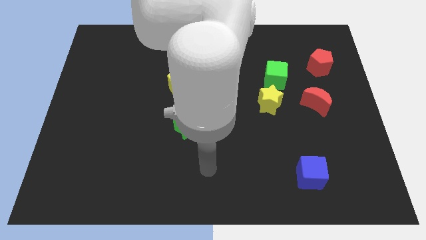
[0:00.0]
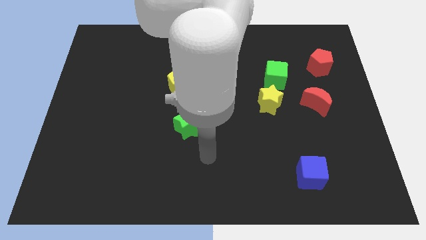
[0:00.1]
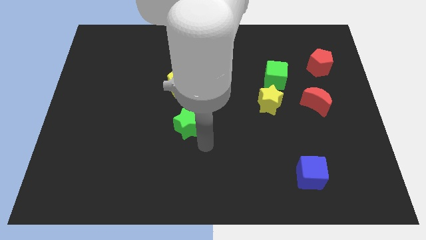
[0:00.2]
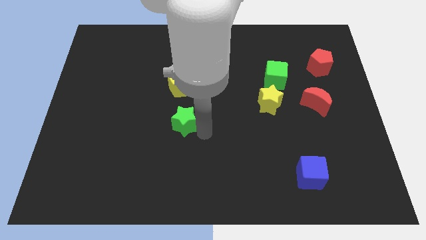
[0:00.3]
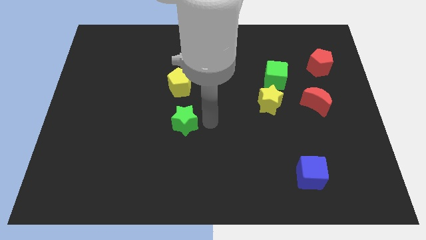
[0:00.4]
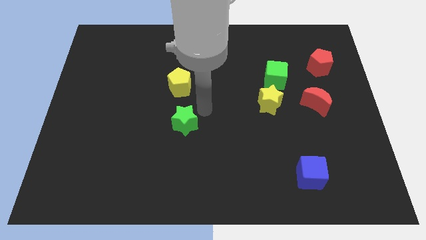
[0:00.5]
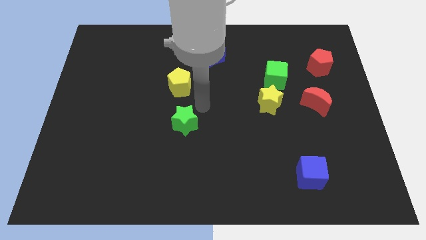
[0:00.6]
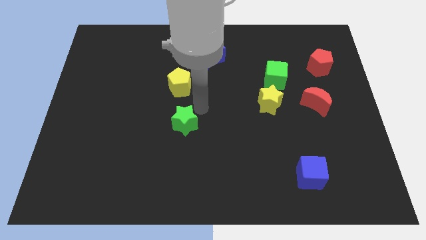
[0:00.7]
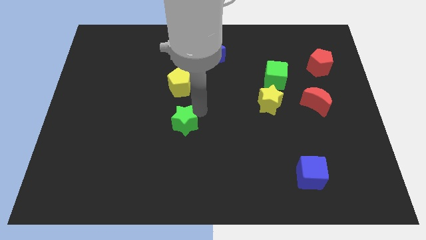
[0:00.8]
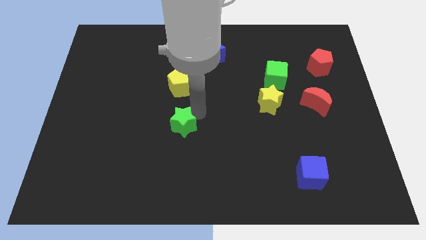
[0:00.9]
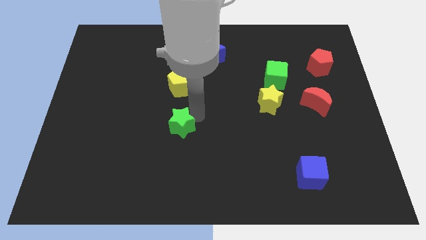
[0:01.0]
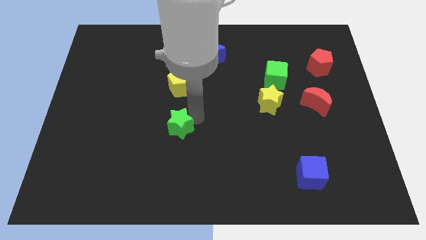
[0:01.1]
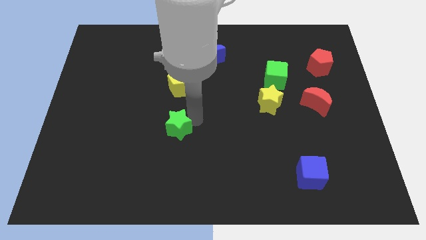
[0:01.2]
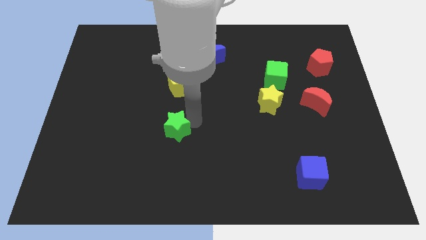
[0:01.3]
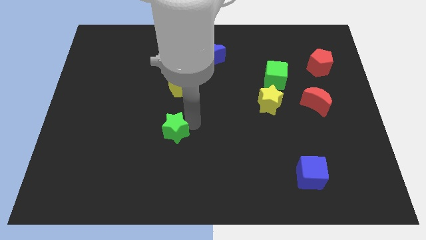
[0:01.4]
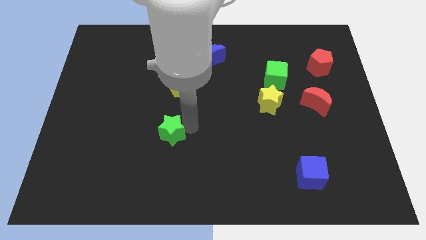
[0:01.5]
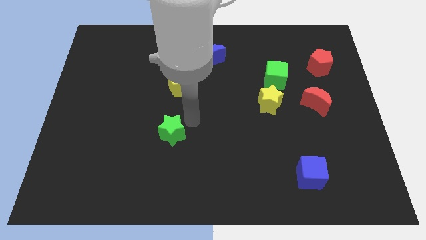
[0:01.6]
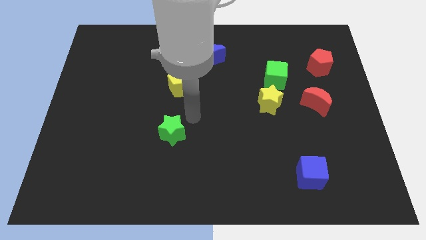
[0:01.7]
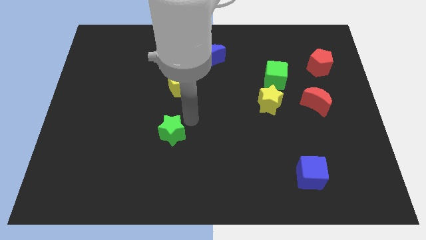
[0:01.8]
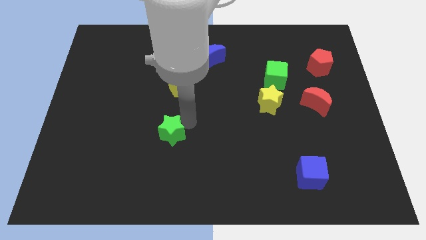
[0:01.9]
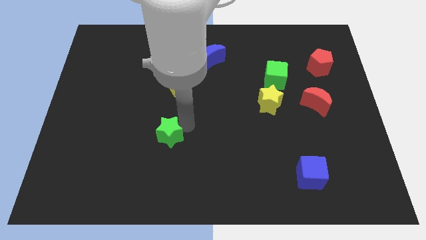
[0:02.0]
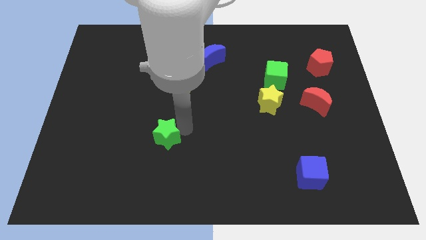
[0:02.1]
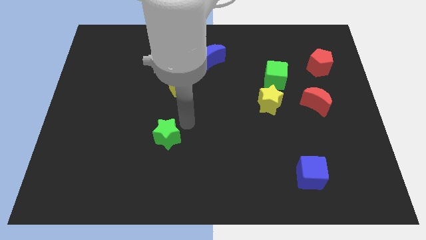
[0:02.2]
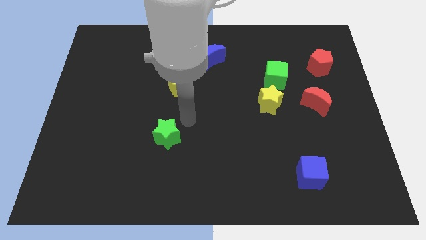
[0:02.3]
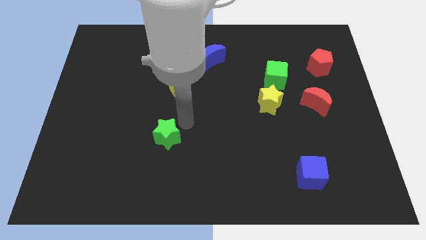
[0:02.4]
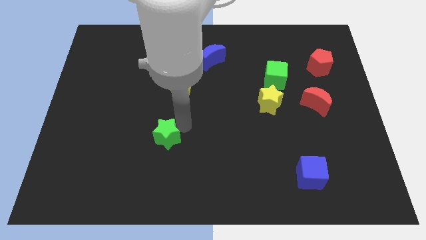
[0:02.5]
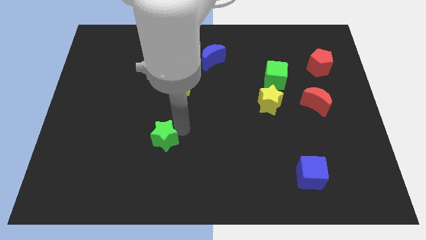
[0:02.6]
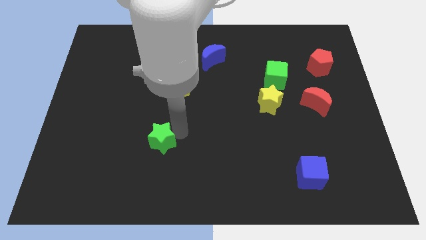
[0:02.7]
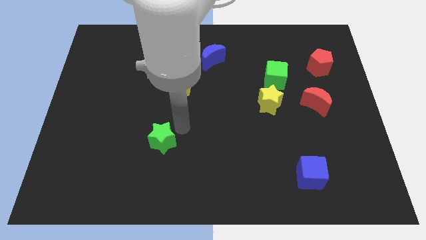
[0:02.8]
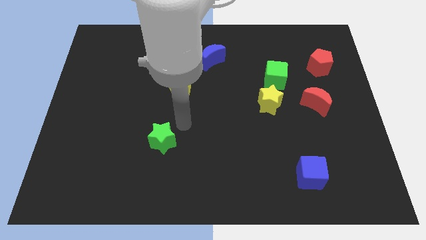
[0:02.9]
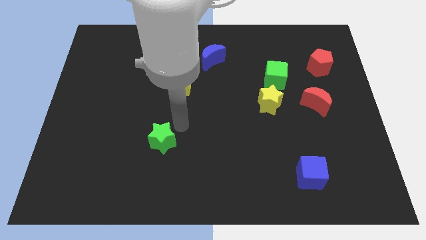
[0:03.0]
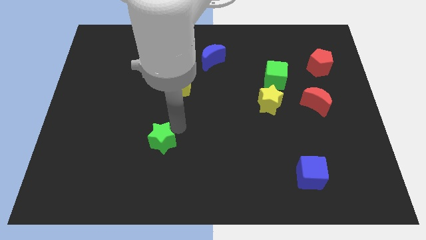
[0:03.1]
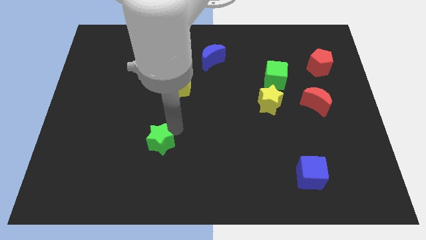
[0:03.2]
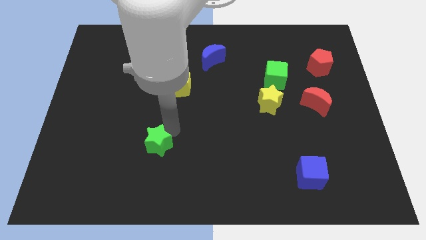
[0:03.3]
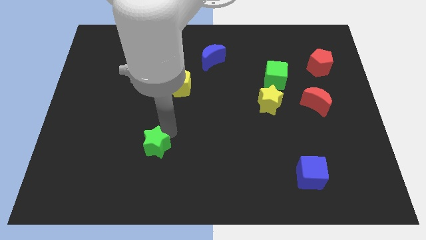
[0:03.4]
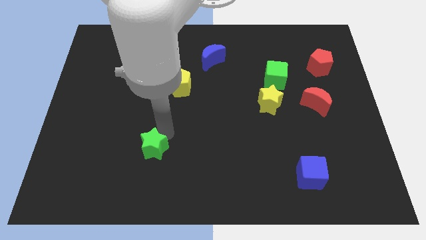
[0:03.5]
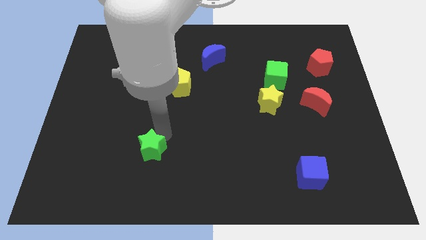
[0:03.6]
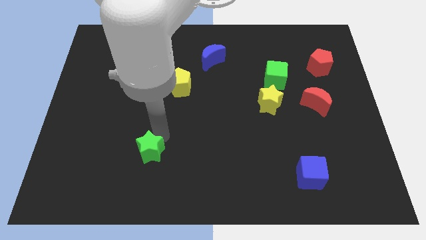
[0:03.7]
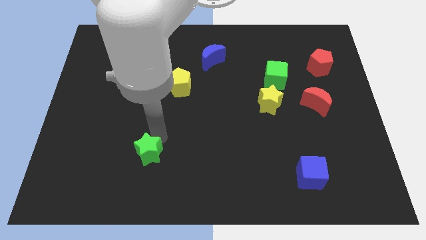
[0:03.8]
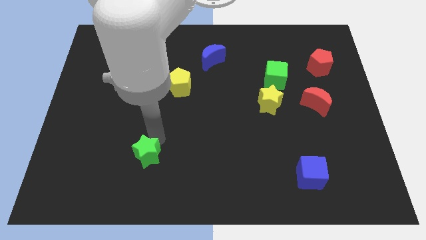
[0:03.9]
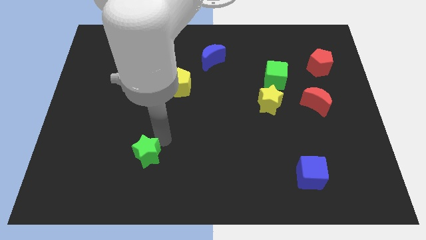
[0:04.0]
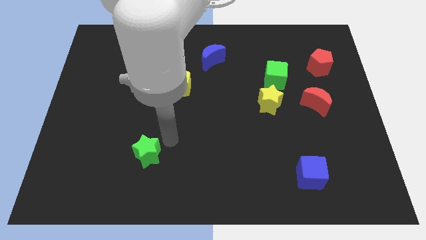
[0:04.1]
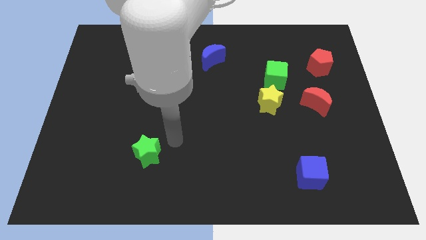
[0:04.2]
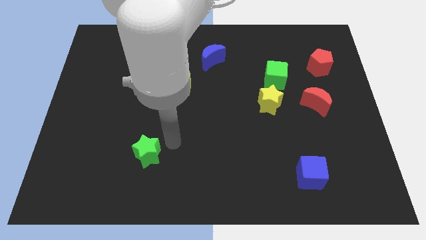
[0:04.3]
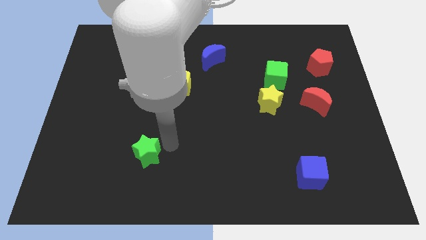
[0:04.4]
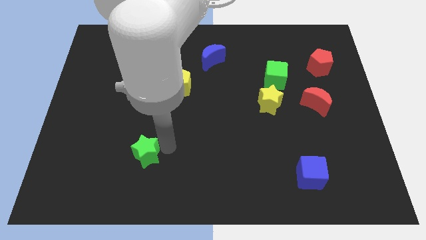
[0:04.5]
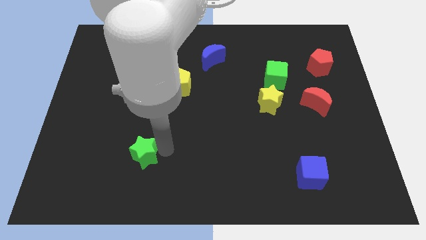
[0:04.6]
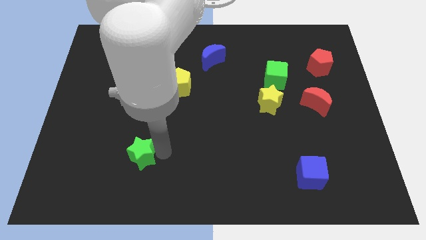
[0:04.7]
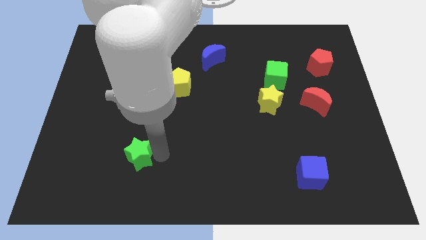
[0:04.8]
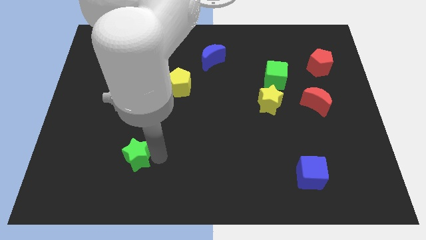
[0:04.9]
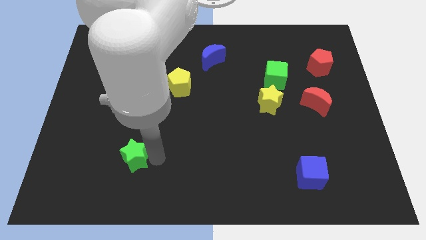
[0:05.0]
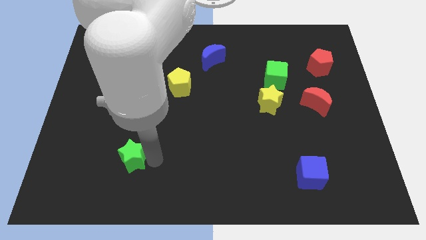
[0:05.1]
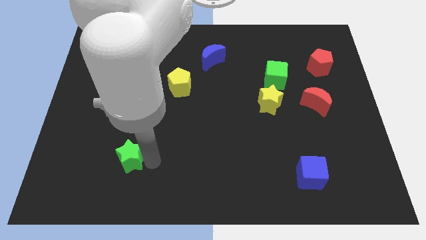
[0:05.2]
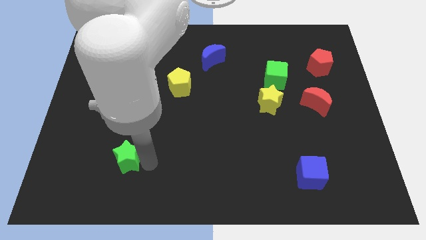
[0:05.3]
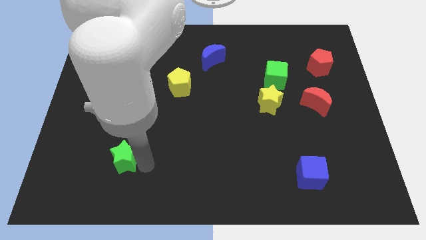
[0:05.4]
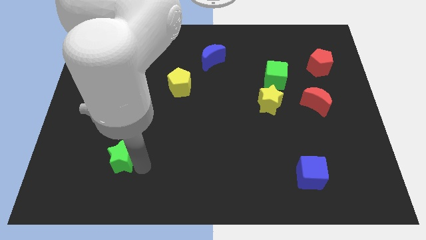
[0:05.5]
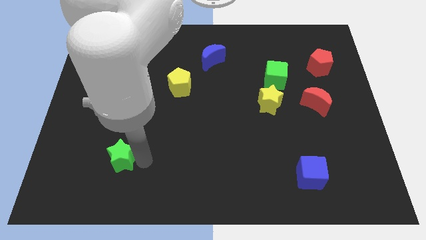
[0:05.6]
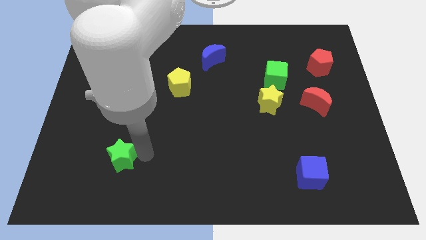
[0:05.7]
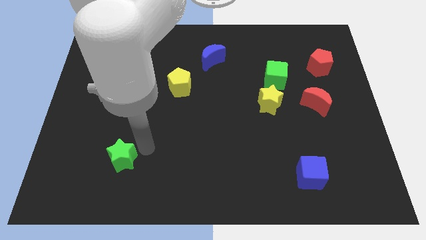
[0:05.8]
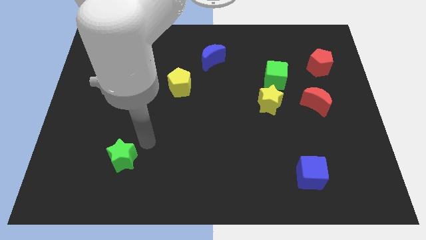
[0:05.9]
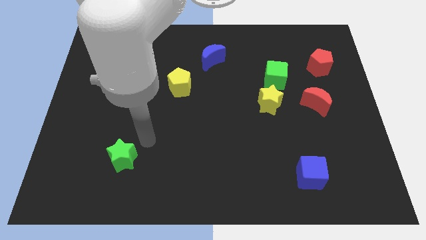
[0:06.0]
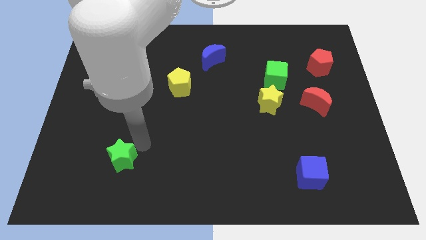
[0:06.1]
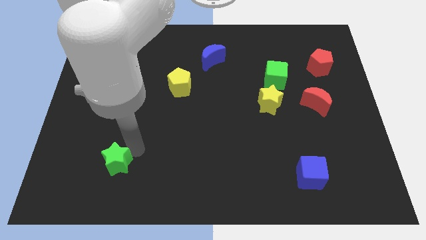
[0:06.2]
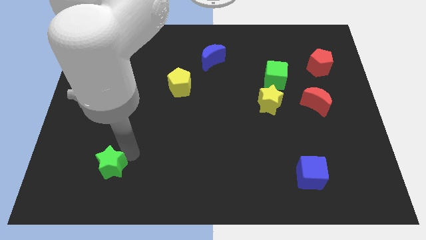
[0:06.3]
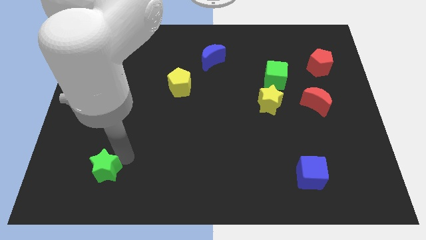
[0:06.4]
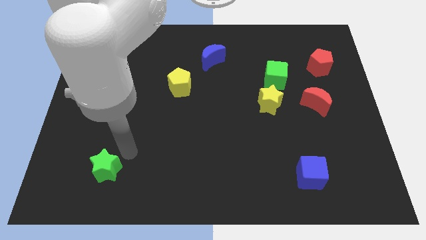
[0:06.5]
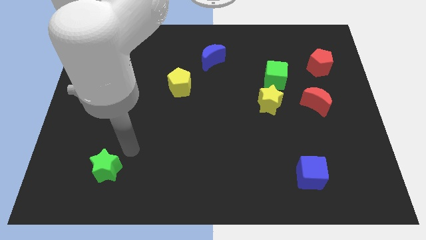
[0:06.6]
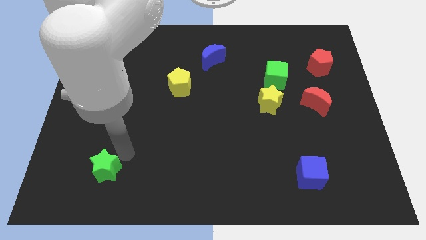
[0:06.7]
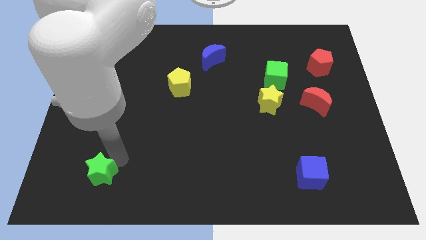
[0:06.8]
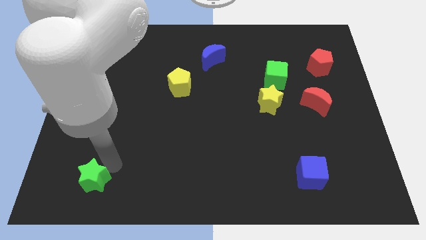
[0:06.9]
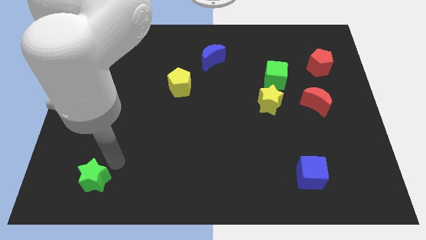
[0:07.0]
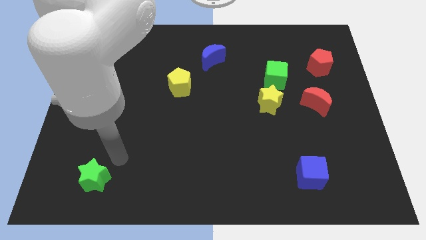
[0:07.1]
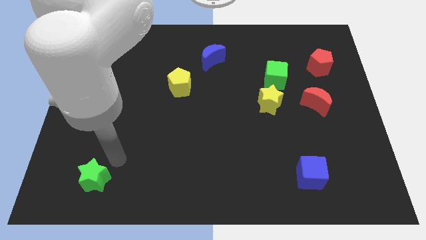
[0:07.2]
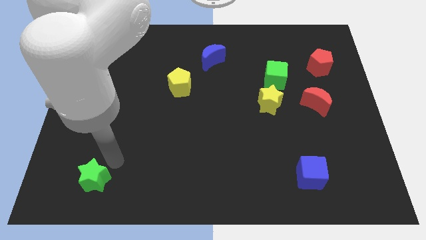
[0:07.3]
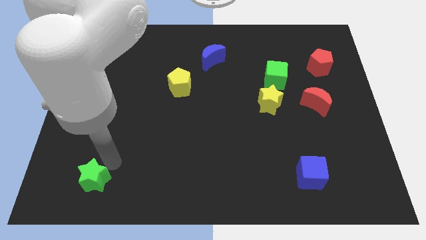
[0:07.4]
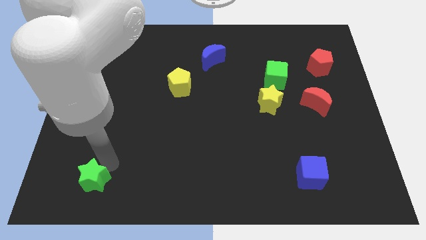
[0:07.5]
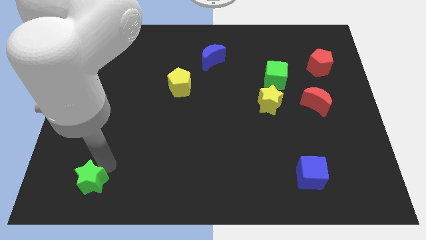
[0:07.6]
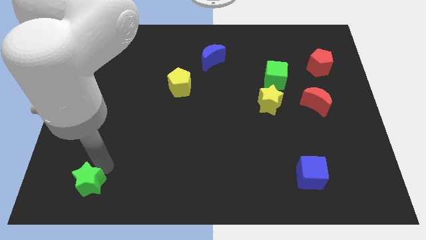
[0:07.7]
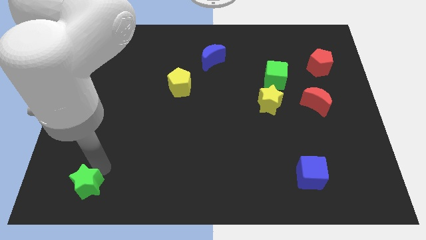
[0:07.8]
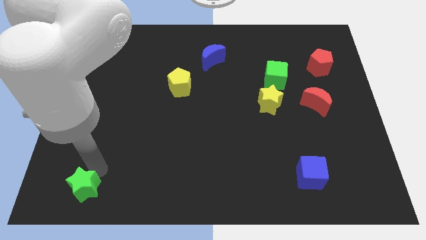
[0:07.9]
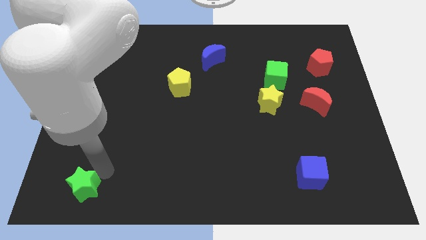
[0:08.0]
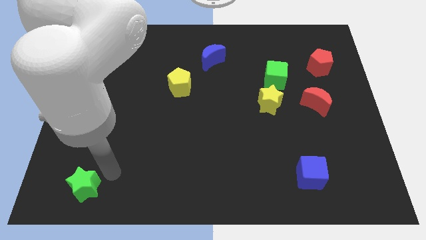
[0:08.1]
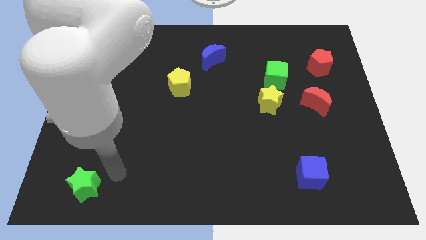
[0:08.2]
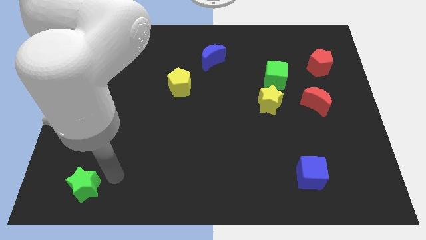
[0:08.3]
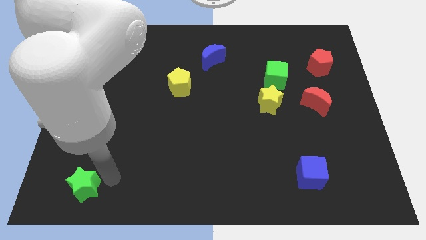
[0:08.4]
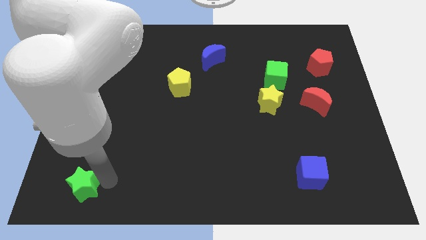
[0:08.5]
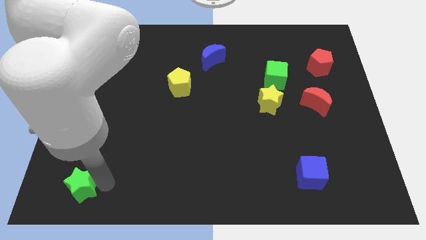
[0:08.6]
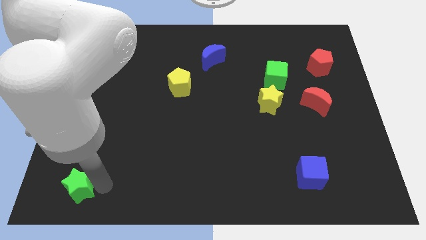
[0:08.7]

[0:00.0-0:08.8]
move the green star to the bottom left of the board
